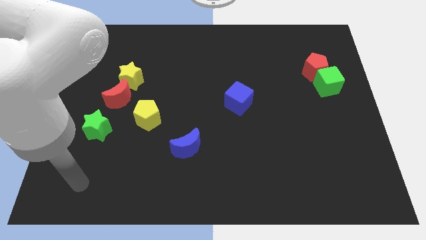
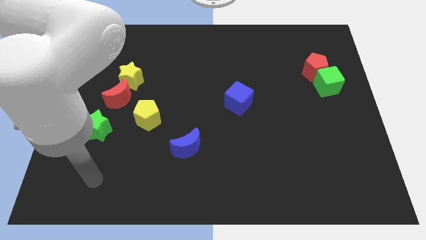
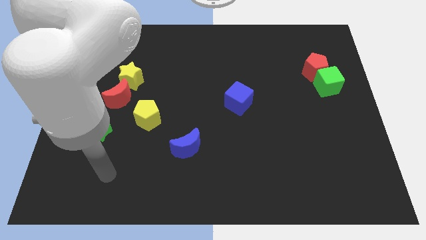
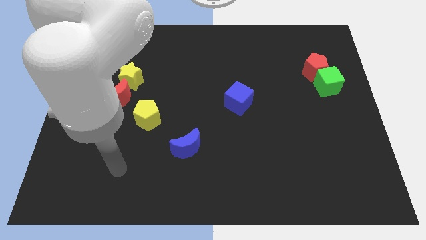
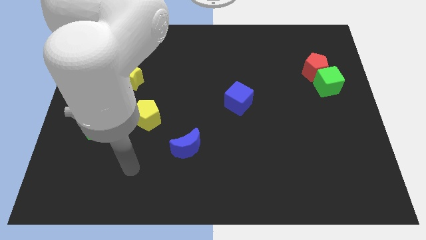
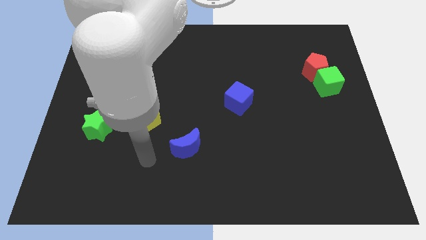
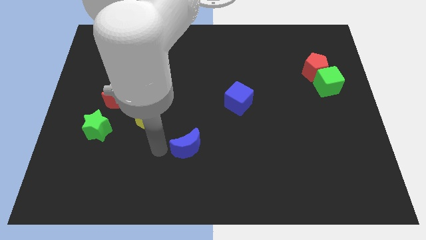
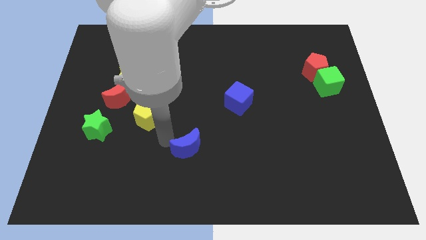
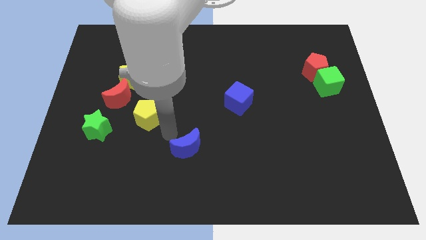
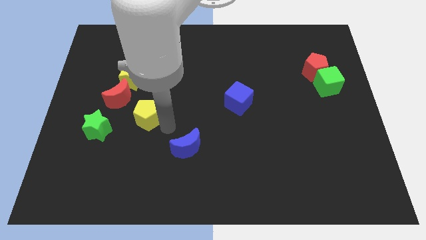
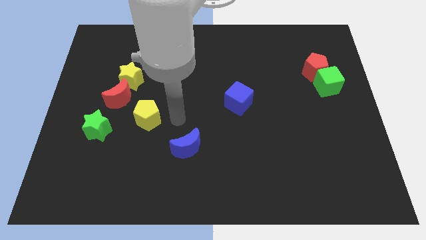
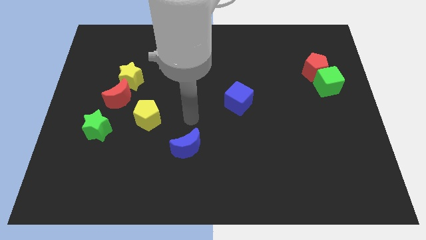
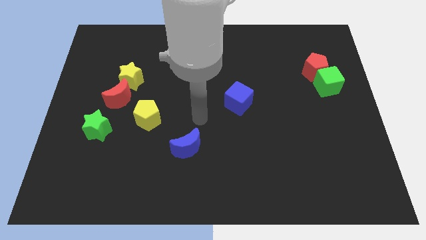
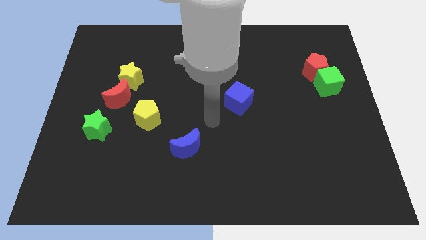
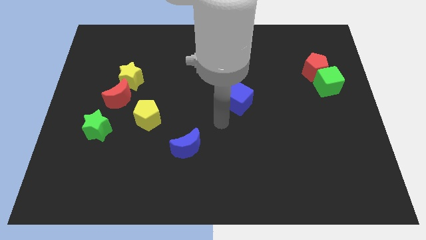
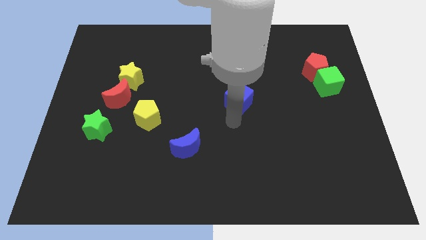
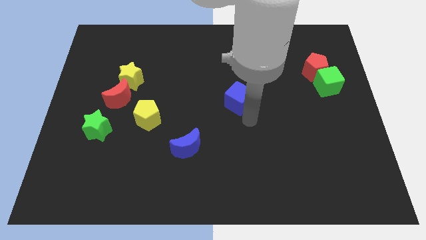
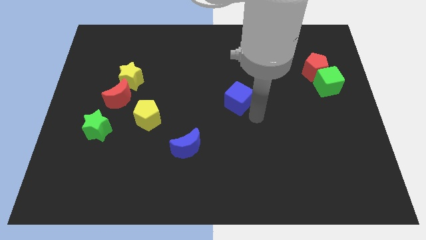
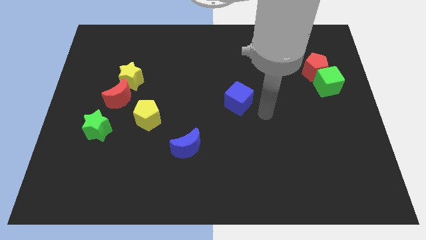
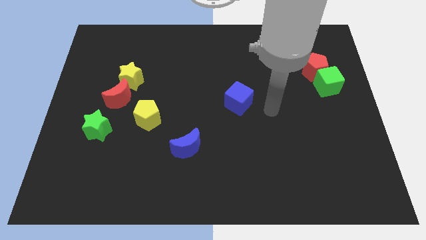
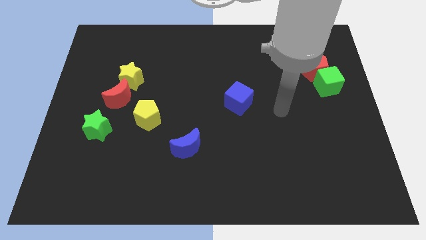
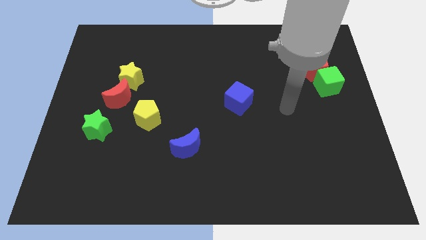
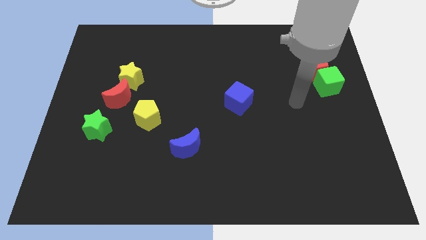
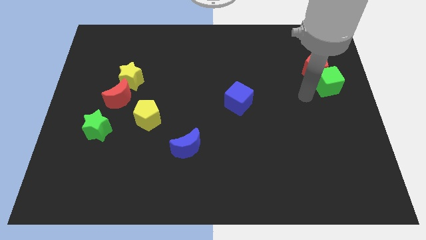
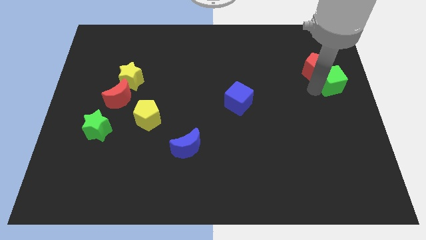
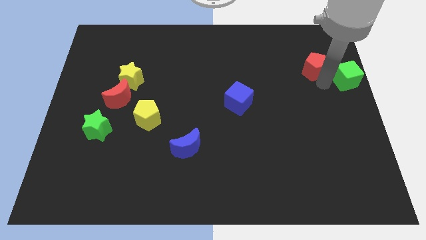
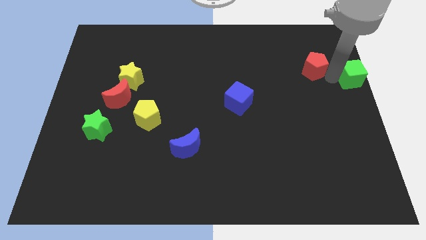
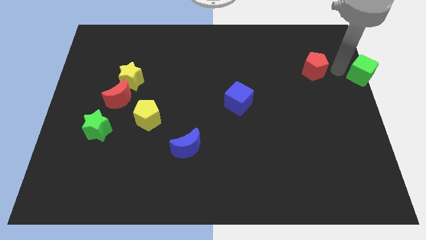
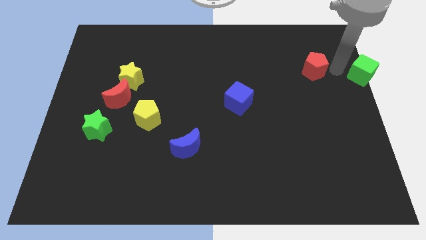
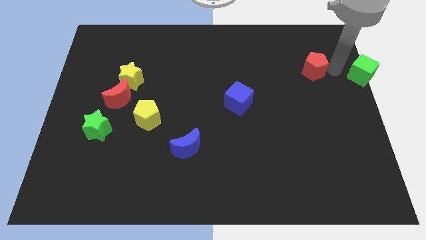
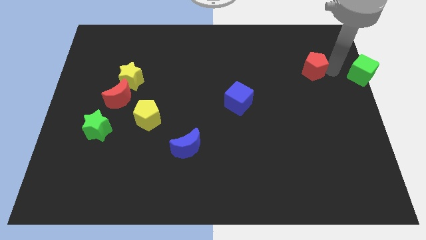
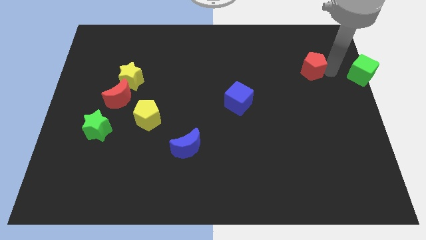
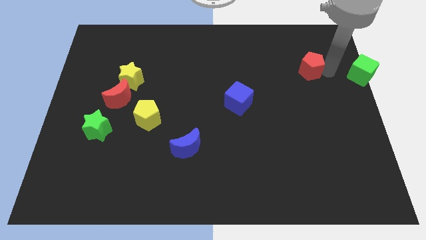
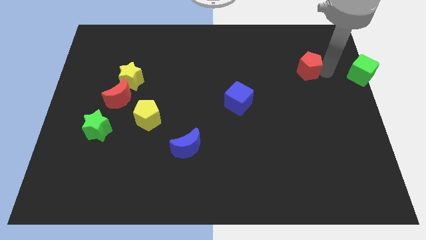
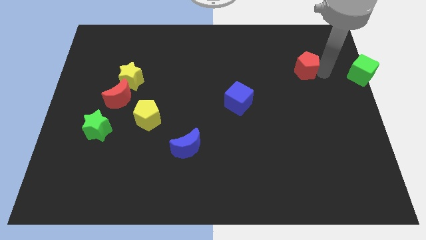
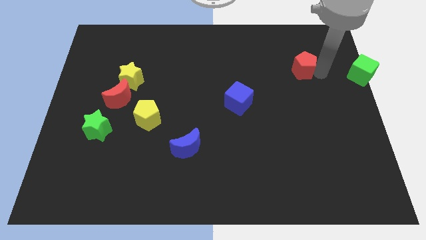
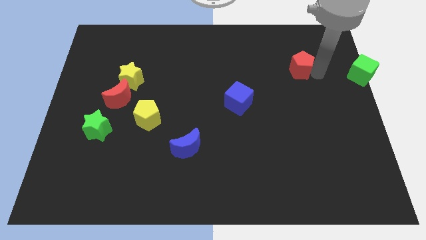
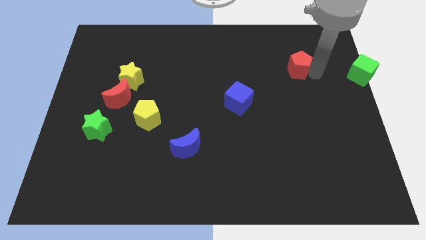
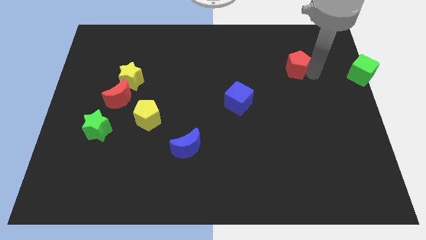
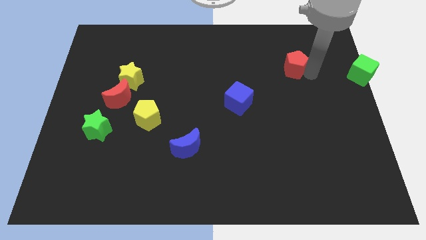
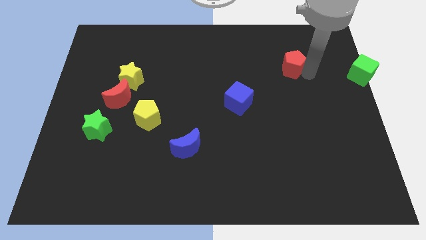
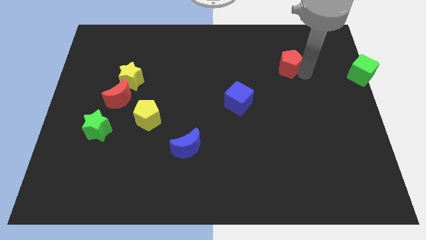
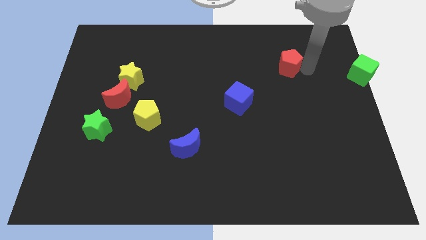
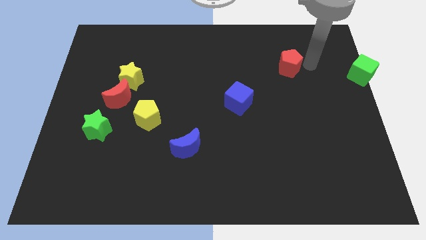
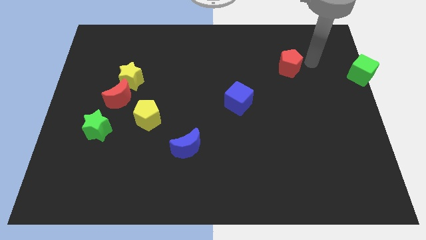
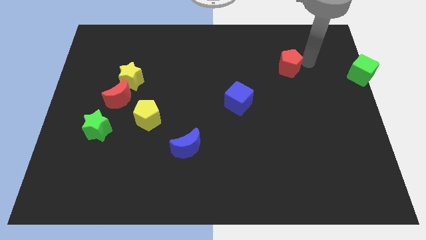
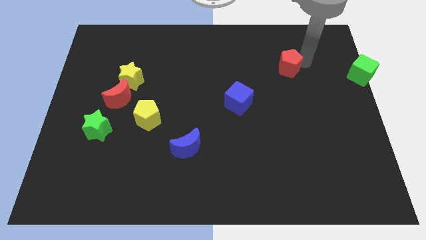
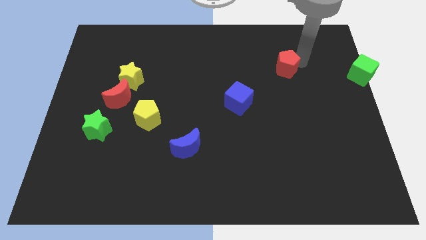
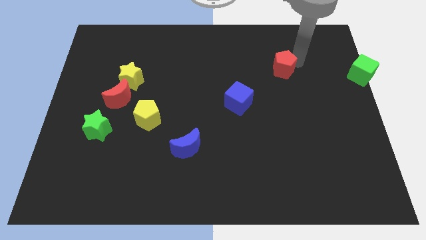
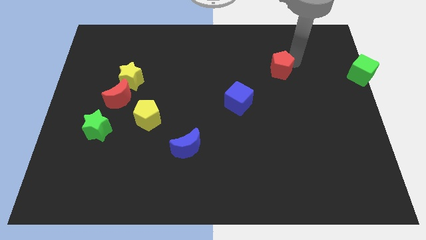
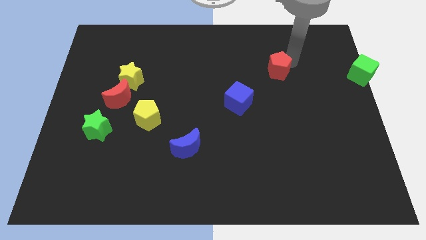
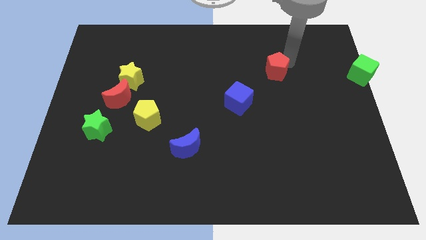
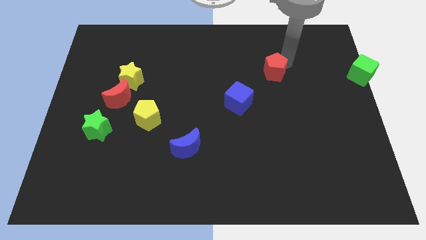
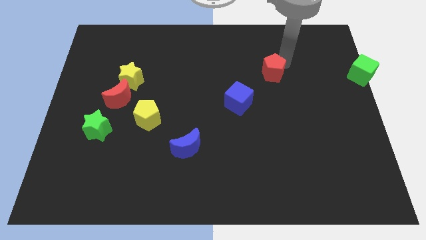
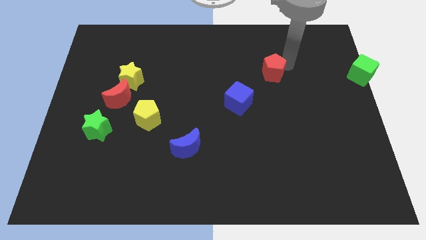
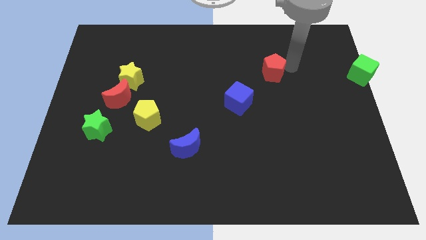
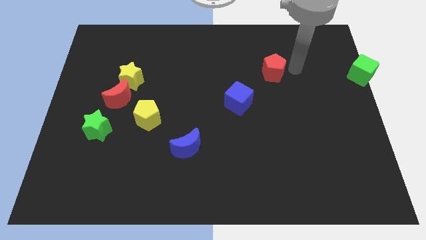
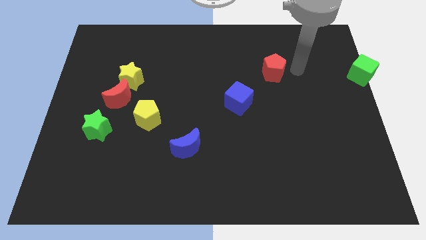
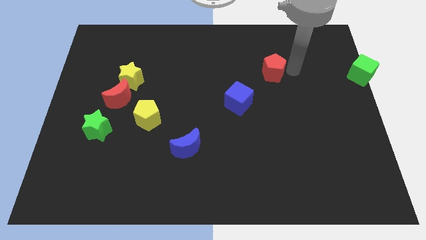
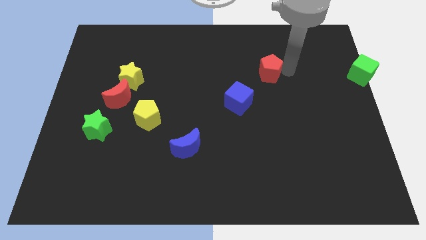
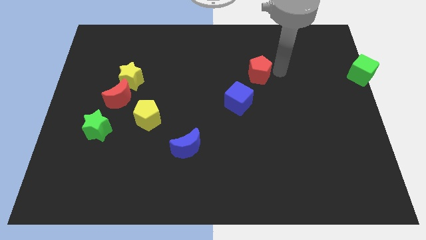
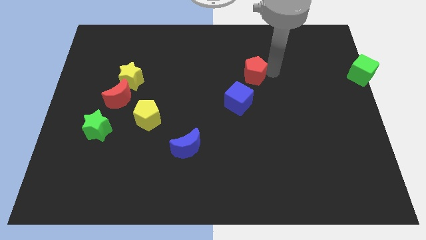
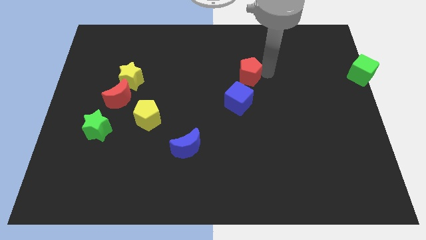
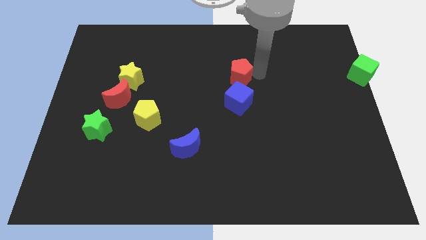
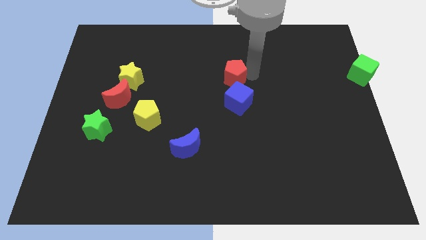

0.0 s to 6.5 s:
move the red pentagon to the left

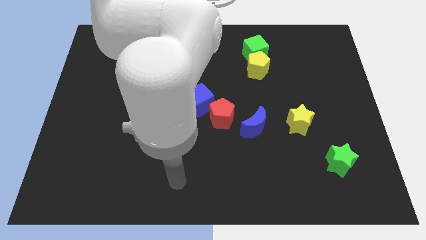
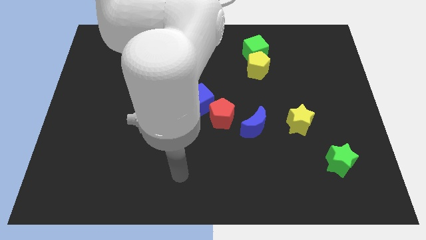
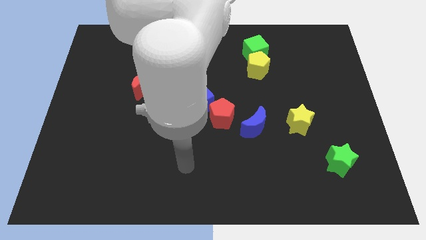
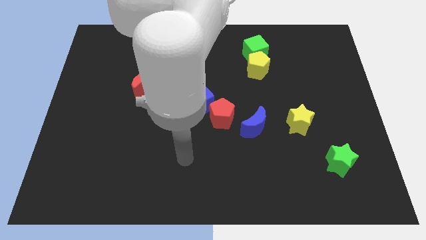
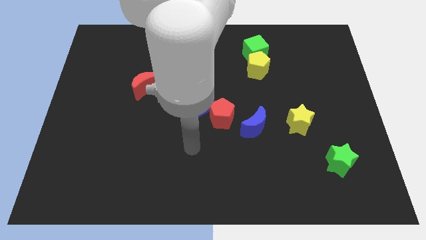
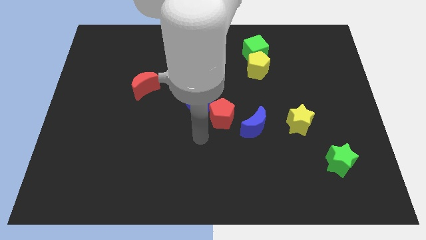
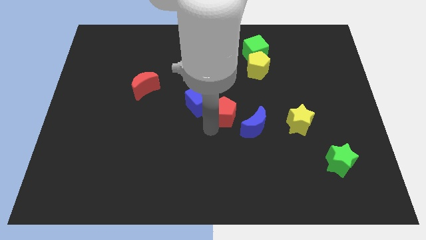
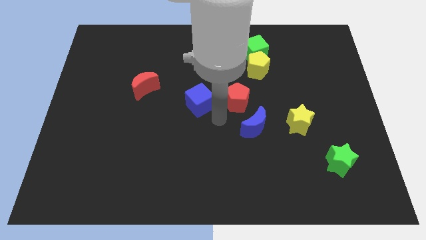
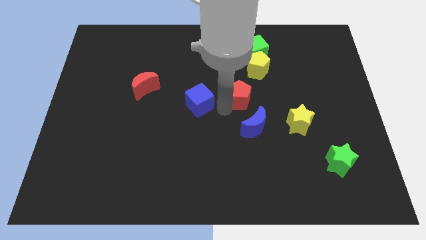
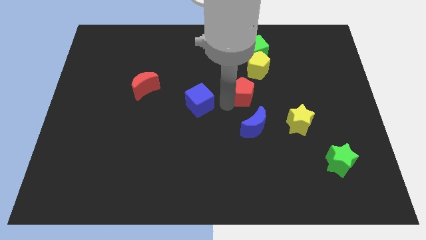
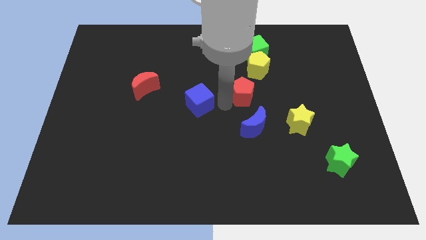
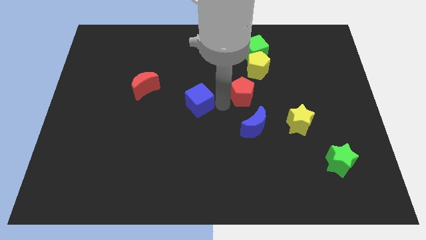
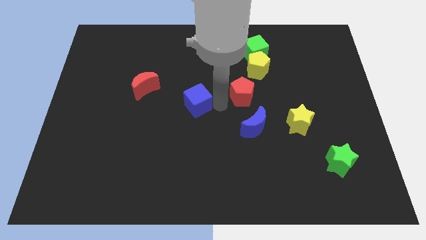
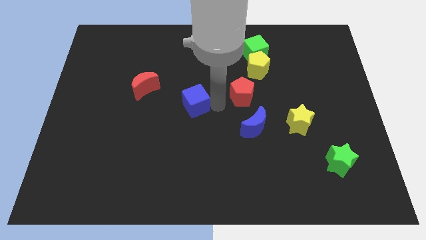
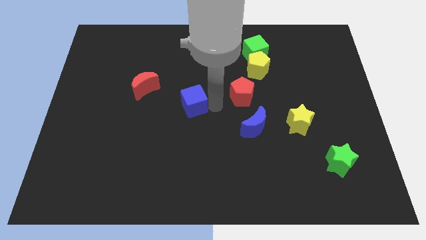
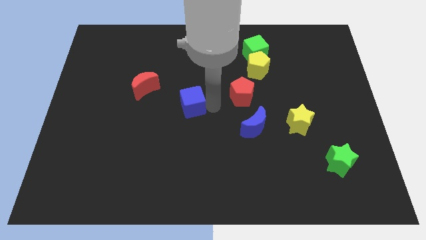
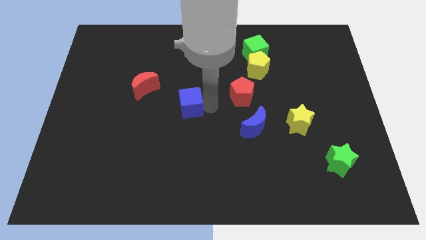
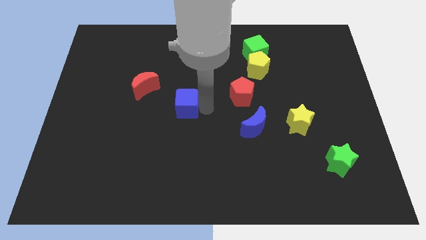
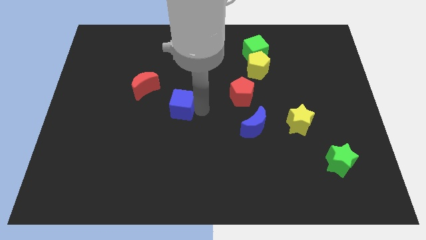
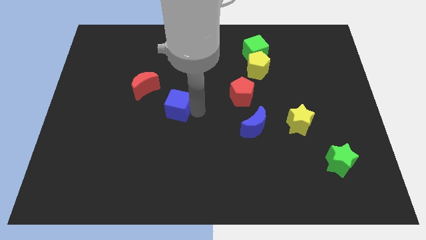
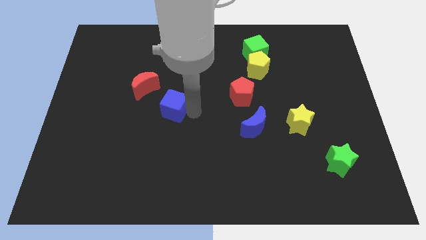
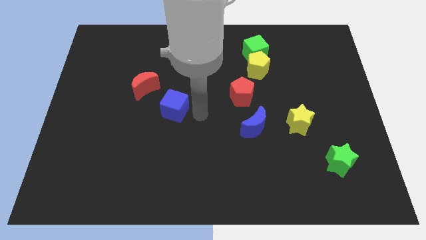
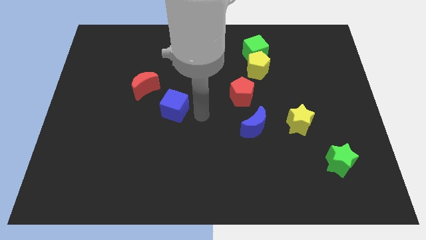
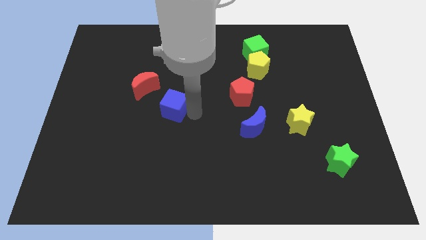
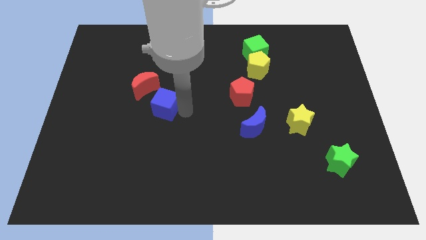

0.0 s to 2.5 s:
move the blue cube to the left a bit
